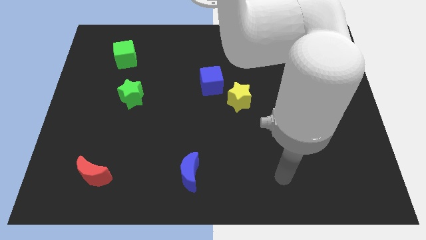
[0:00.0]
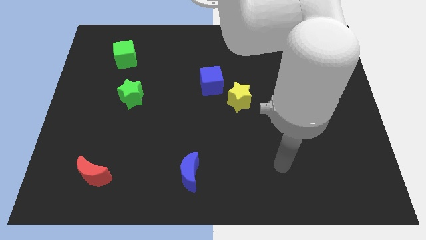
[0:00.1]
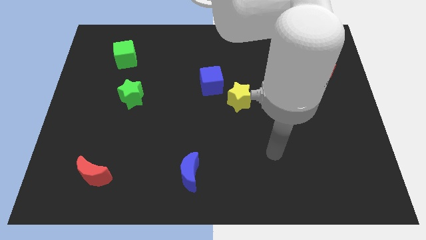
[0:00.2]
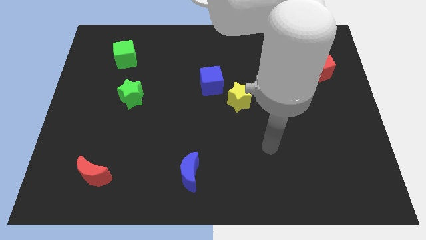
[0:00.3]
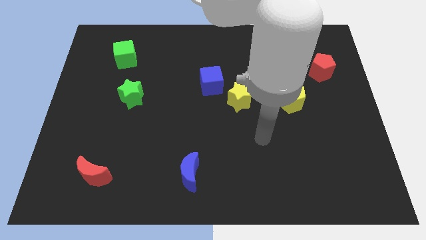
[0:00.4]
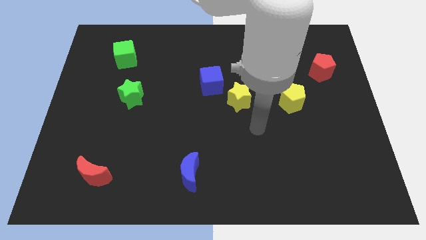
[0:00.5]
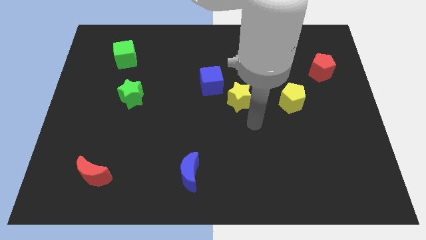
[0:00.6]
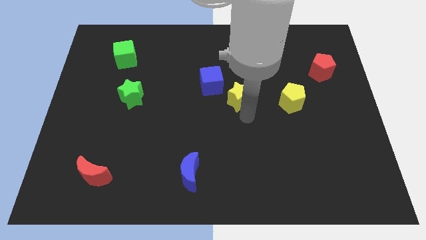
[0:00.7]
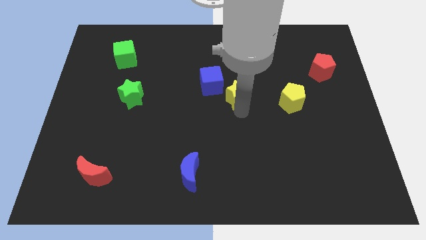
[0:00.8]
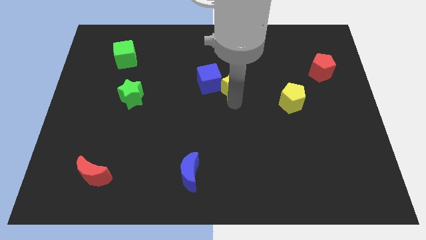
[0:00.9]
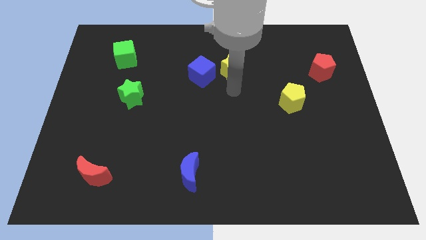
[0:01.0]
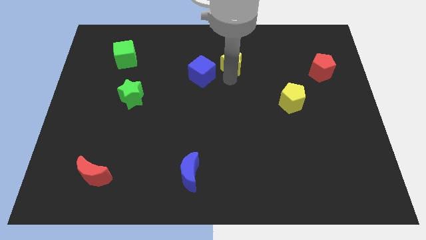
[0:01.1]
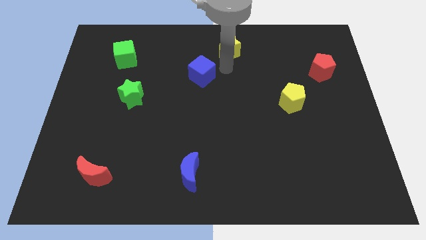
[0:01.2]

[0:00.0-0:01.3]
move the blue cube away from the yellow star

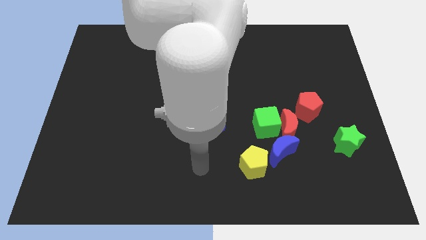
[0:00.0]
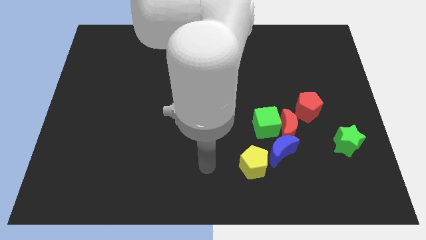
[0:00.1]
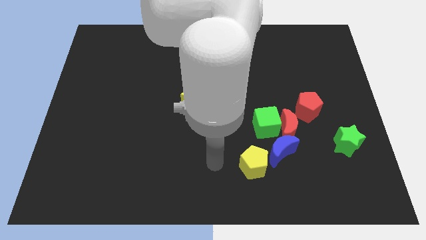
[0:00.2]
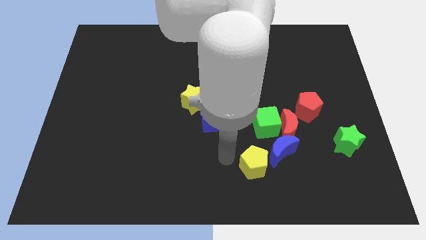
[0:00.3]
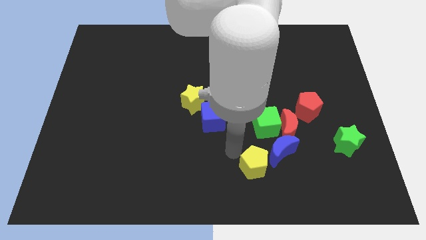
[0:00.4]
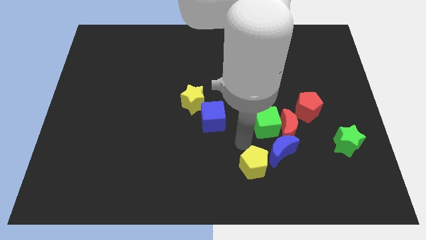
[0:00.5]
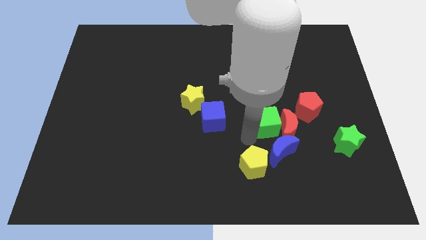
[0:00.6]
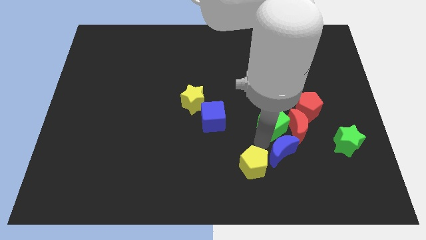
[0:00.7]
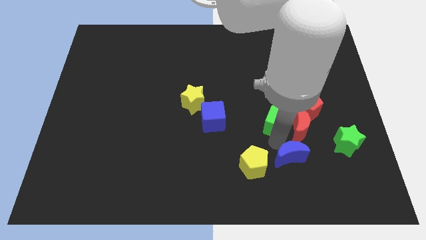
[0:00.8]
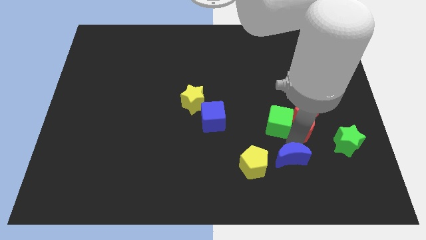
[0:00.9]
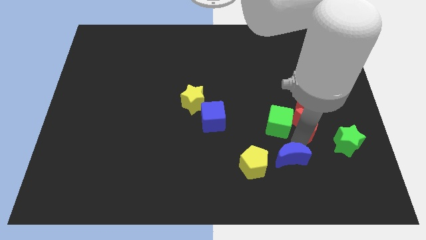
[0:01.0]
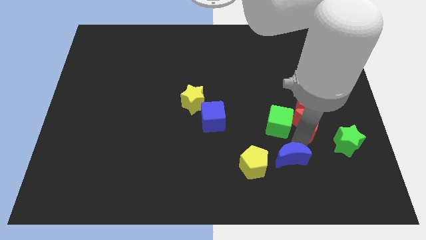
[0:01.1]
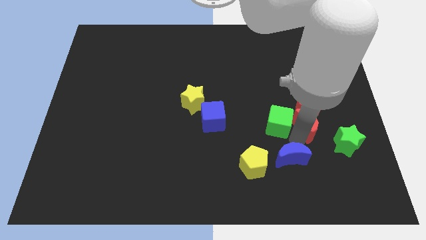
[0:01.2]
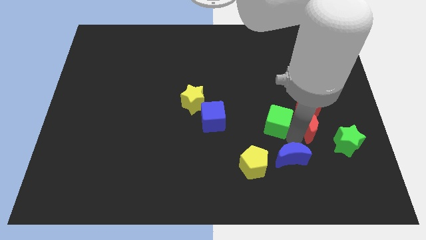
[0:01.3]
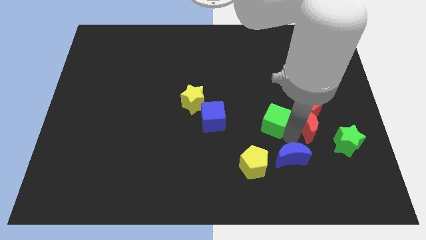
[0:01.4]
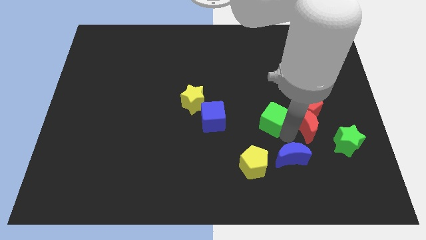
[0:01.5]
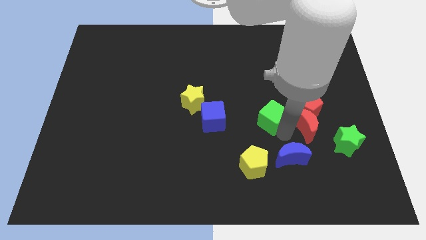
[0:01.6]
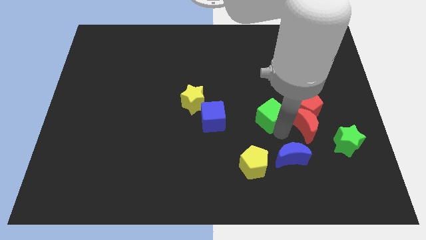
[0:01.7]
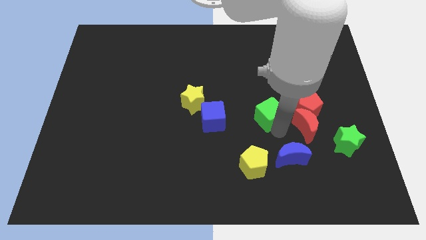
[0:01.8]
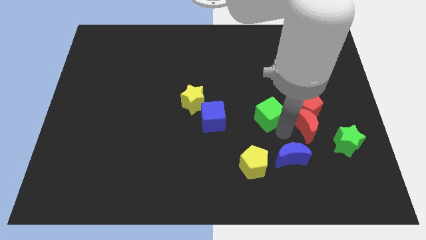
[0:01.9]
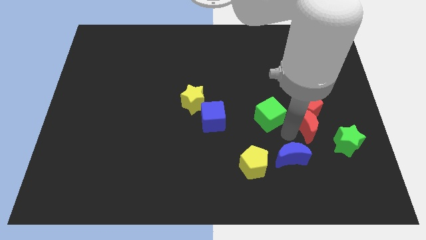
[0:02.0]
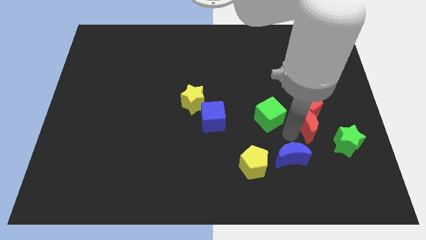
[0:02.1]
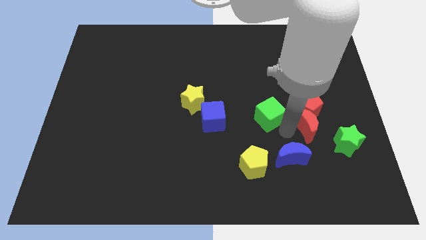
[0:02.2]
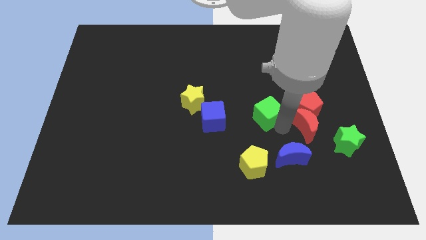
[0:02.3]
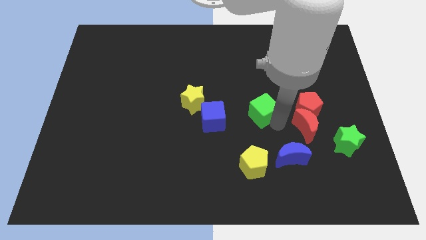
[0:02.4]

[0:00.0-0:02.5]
pull the green cube apart from the red moon and blue moon

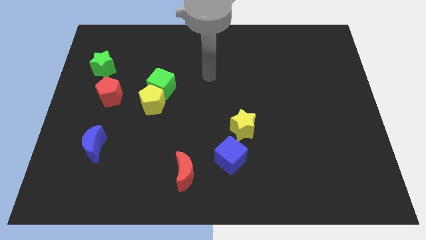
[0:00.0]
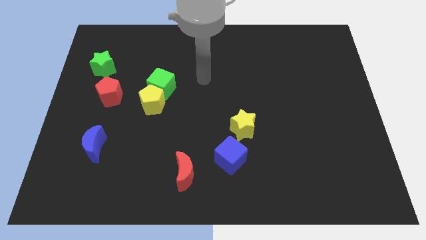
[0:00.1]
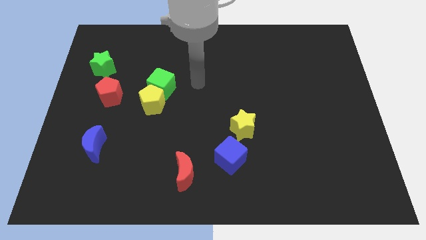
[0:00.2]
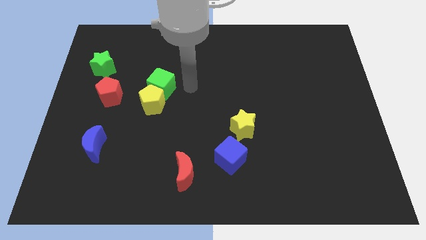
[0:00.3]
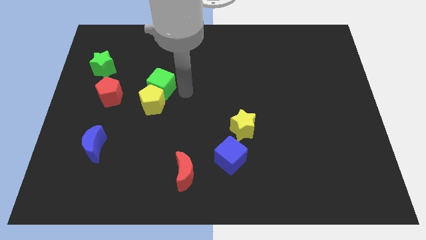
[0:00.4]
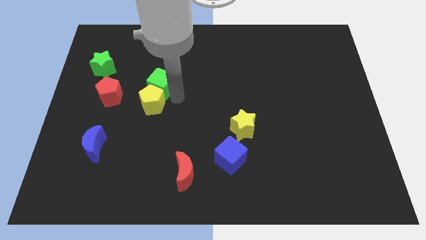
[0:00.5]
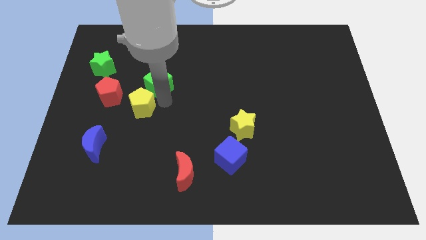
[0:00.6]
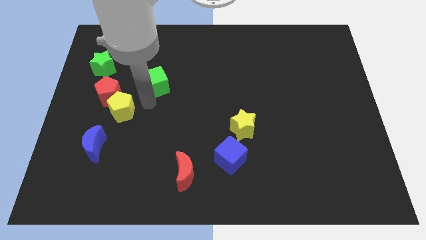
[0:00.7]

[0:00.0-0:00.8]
move the green cube away from the yellow pentagon

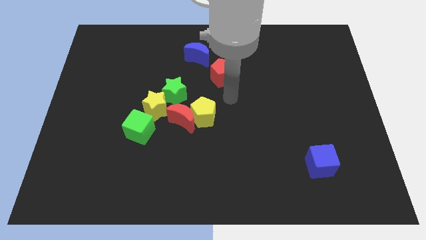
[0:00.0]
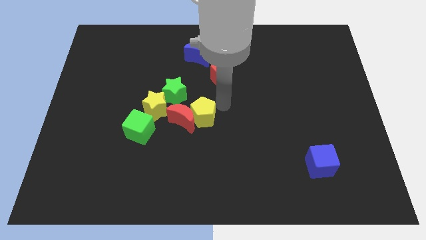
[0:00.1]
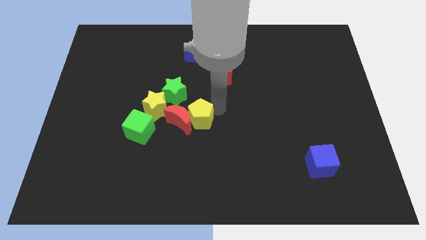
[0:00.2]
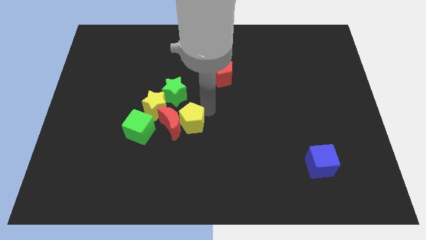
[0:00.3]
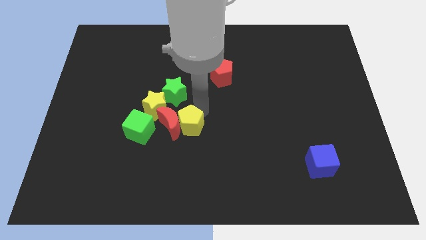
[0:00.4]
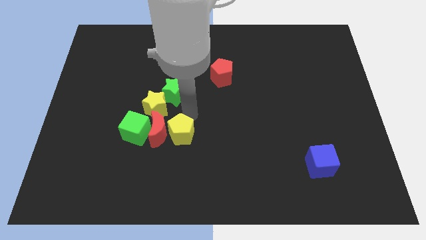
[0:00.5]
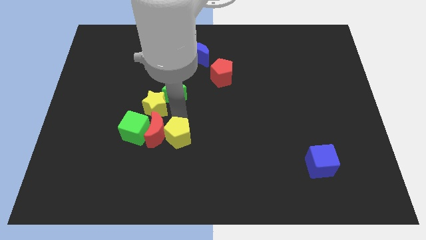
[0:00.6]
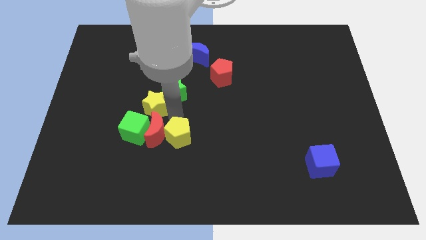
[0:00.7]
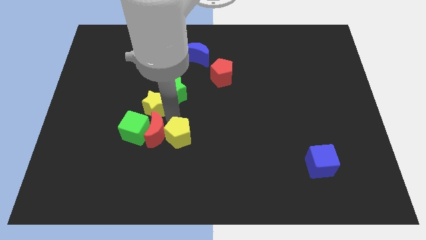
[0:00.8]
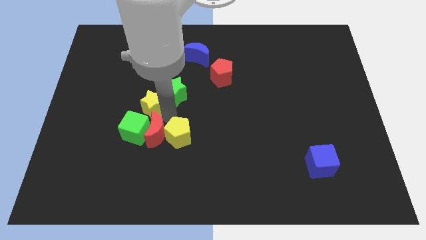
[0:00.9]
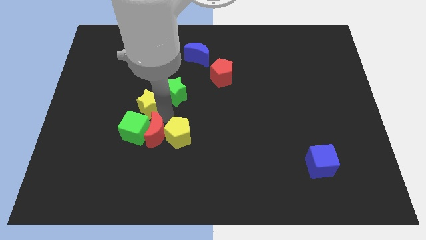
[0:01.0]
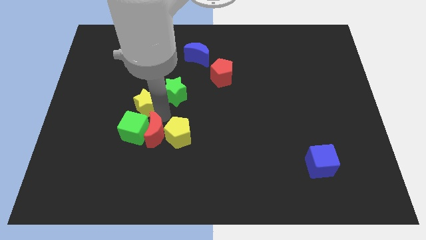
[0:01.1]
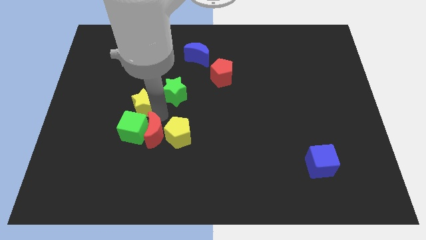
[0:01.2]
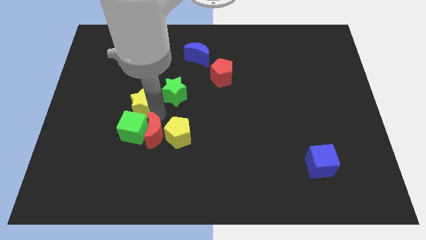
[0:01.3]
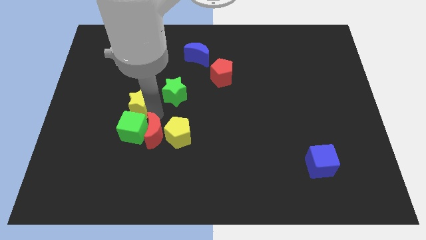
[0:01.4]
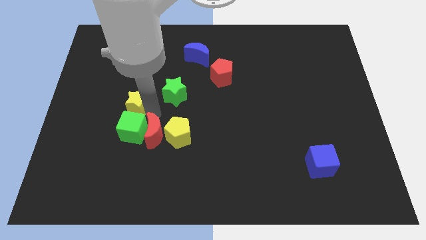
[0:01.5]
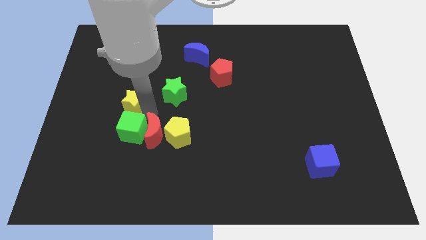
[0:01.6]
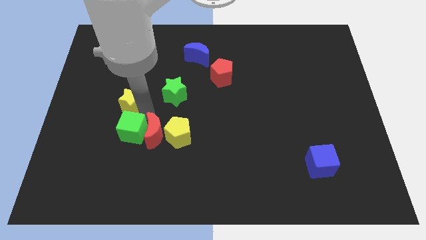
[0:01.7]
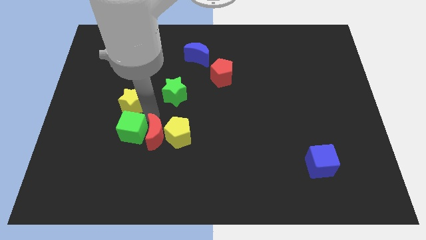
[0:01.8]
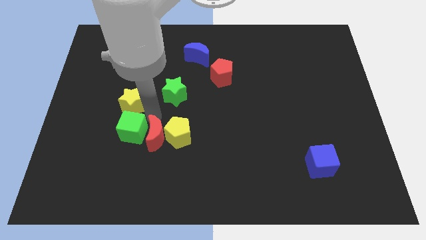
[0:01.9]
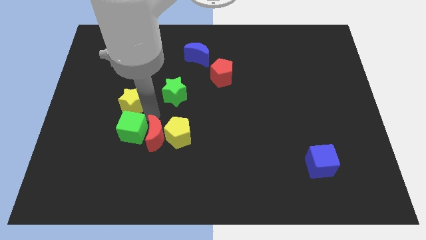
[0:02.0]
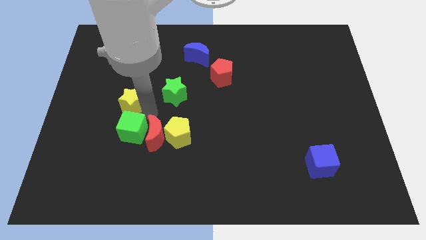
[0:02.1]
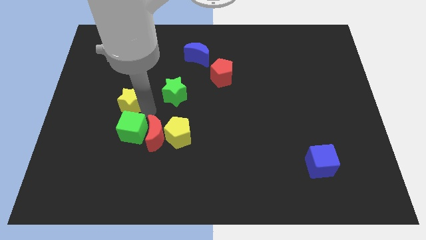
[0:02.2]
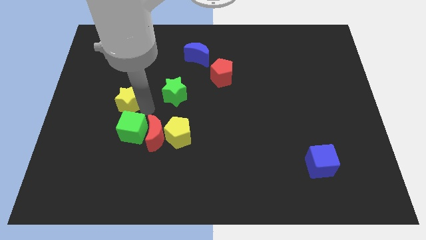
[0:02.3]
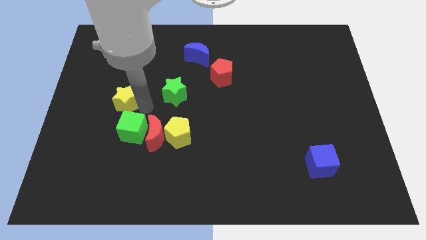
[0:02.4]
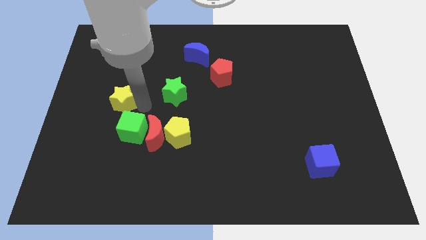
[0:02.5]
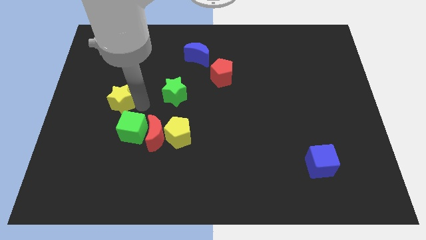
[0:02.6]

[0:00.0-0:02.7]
separate the yellow star from the green star, green cube, and red moon

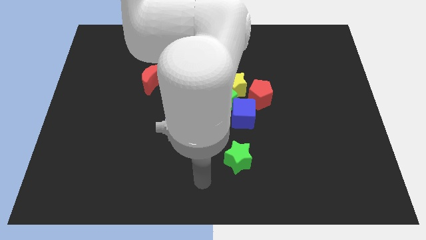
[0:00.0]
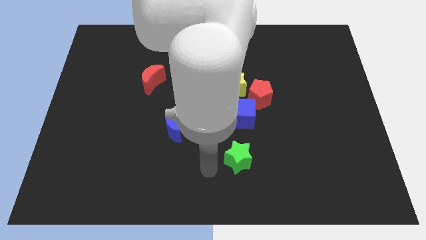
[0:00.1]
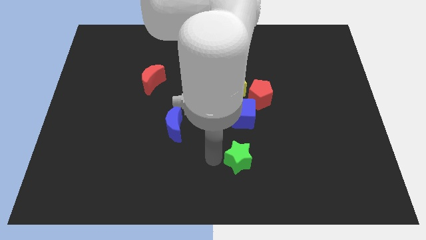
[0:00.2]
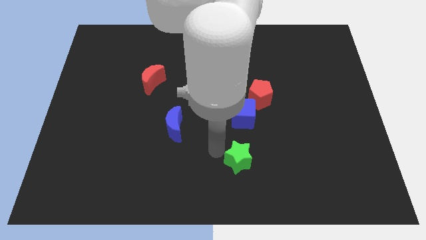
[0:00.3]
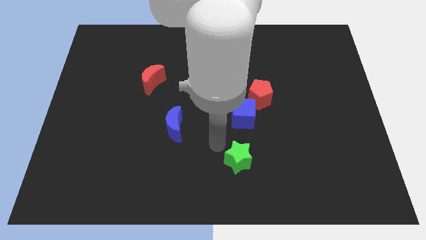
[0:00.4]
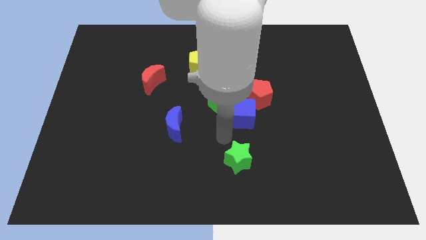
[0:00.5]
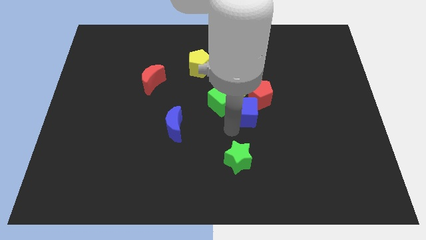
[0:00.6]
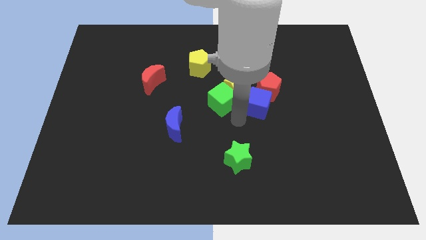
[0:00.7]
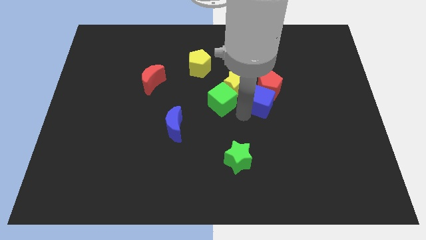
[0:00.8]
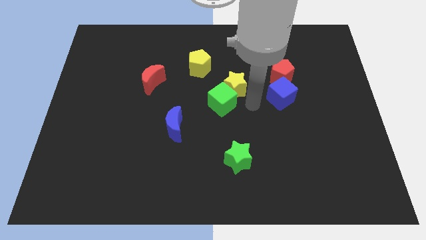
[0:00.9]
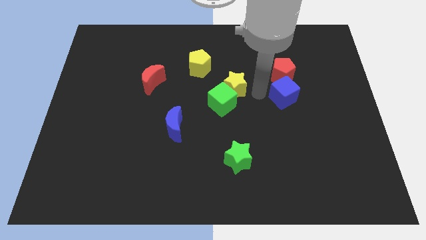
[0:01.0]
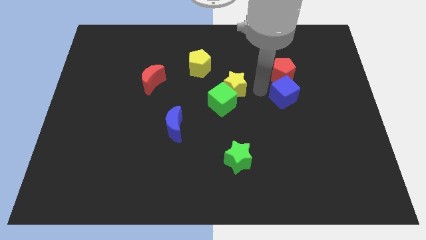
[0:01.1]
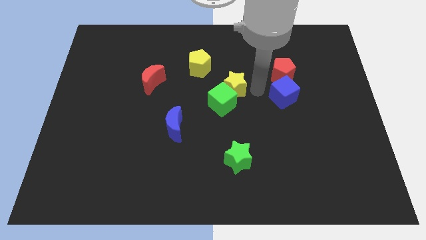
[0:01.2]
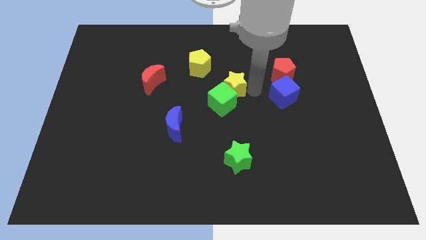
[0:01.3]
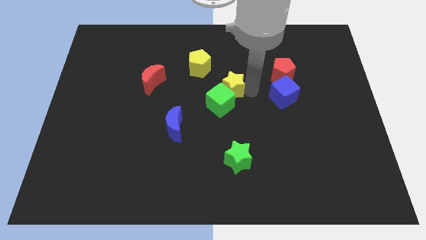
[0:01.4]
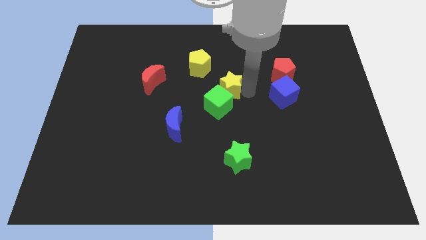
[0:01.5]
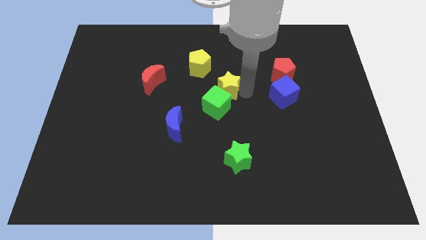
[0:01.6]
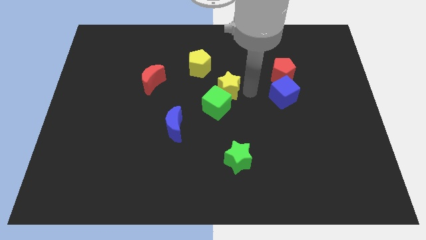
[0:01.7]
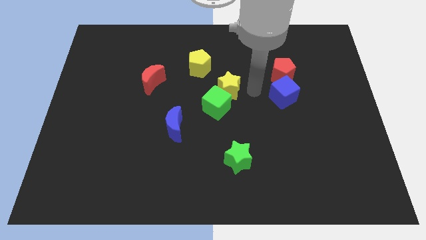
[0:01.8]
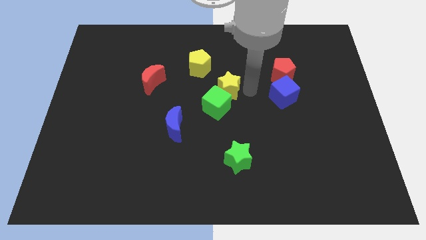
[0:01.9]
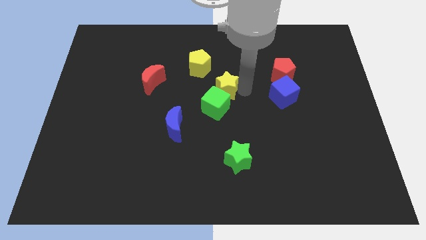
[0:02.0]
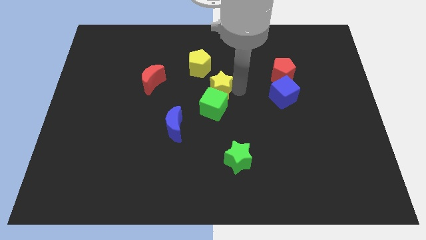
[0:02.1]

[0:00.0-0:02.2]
separate the yellow star from the green cube, red pentagon, and blue cube
